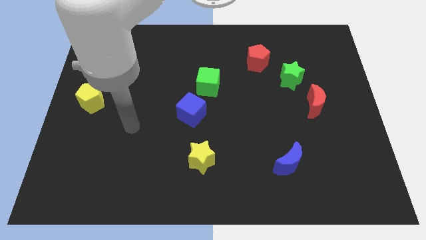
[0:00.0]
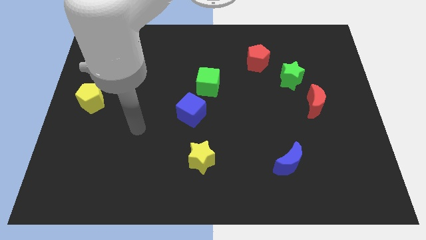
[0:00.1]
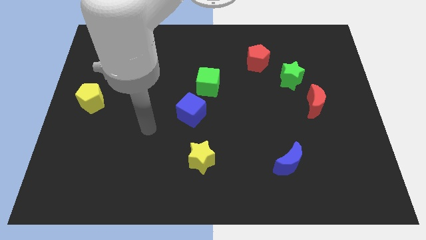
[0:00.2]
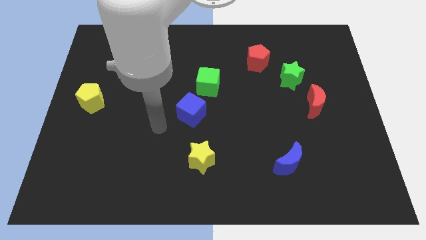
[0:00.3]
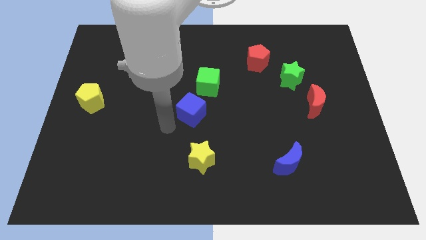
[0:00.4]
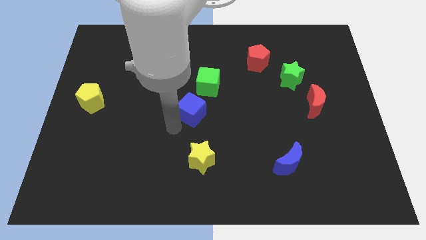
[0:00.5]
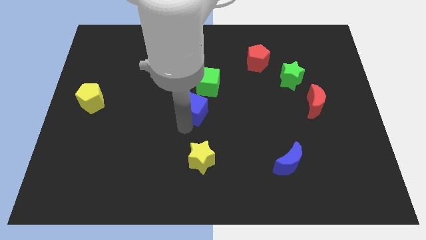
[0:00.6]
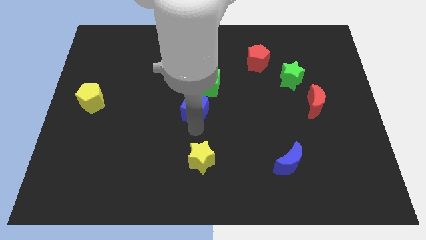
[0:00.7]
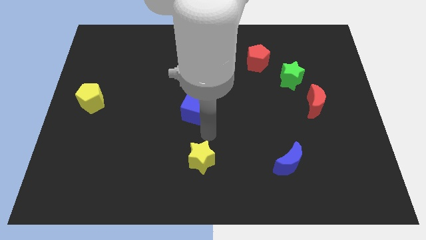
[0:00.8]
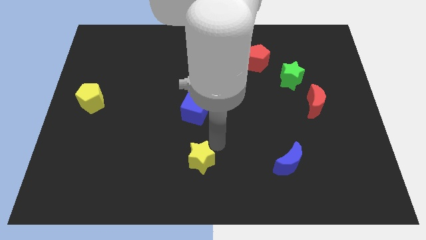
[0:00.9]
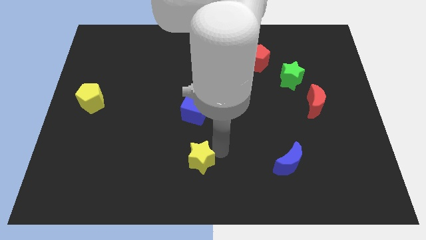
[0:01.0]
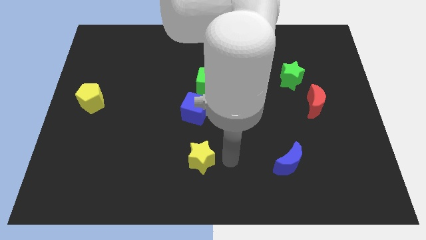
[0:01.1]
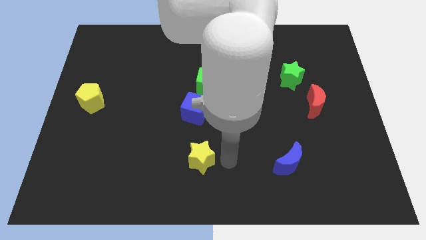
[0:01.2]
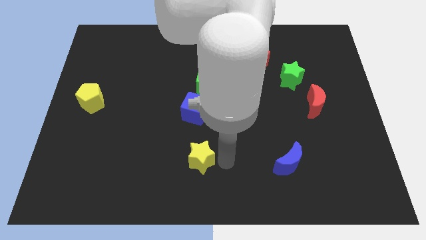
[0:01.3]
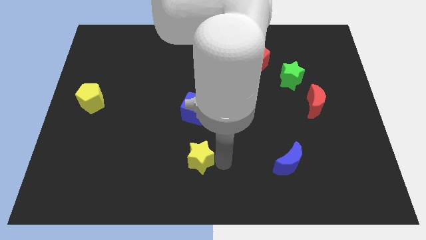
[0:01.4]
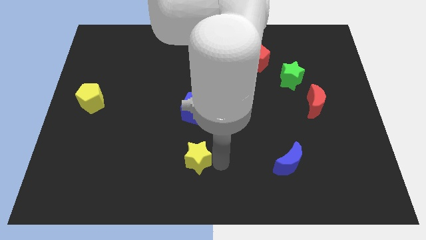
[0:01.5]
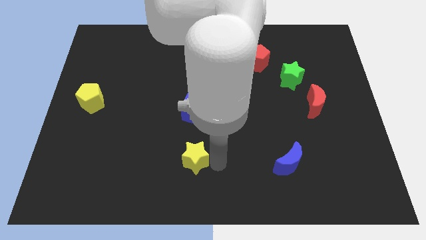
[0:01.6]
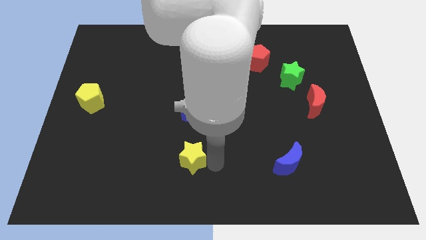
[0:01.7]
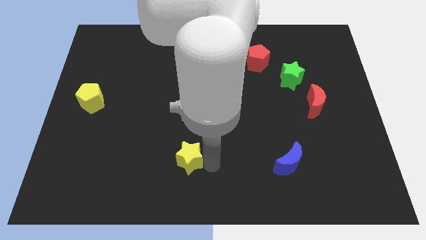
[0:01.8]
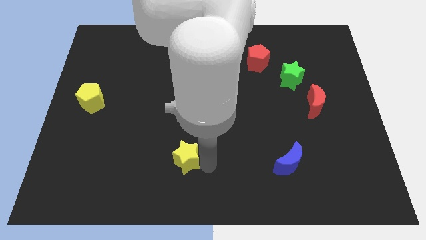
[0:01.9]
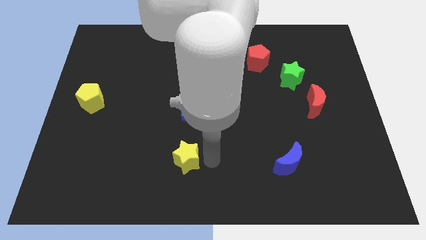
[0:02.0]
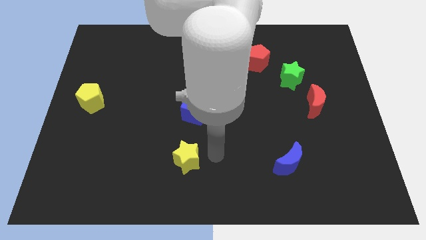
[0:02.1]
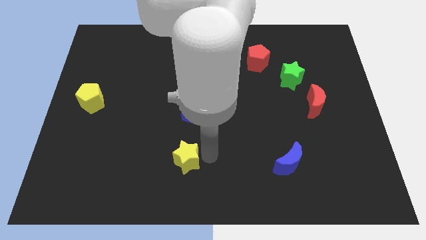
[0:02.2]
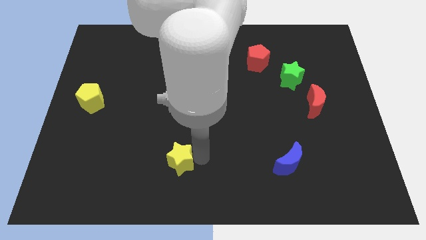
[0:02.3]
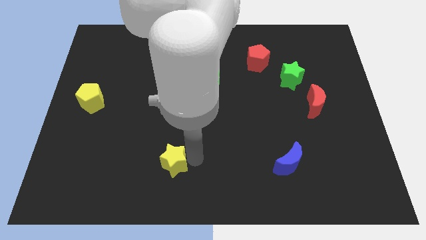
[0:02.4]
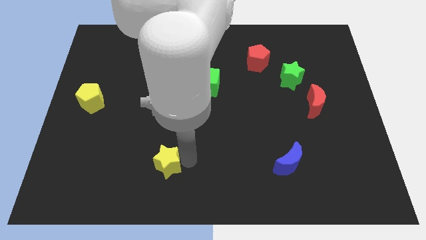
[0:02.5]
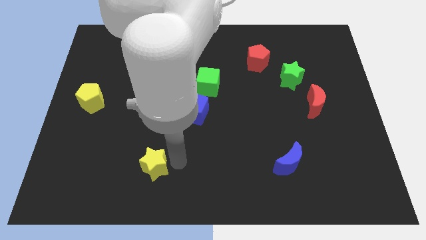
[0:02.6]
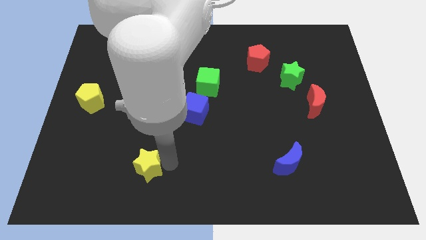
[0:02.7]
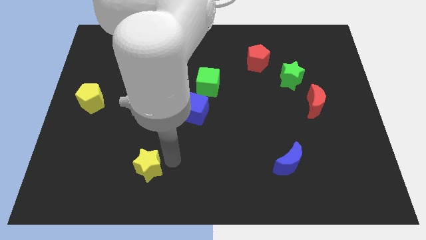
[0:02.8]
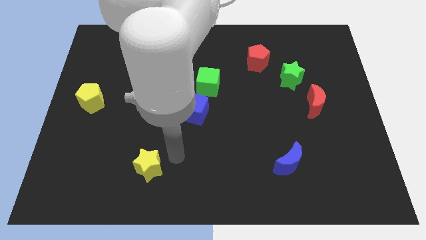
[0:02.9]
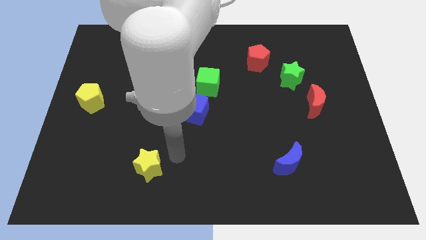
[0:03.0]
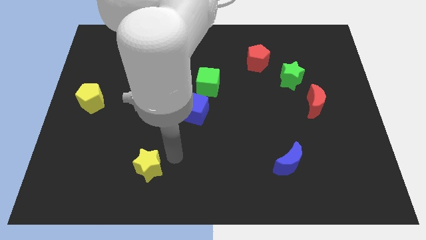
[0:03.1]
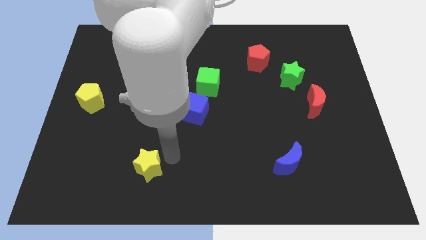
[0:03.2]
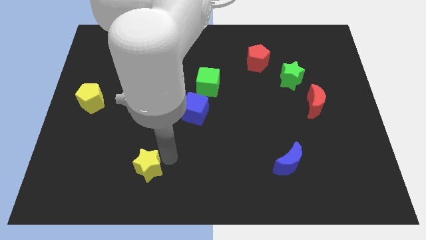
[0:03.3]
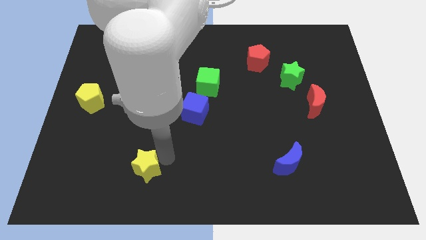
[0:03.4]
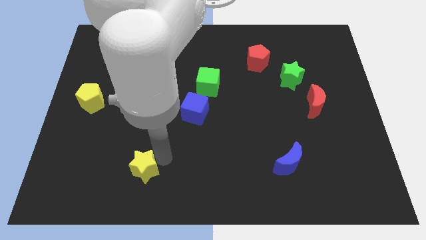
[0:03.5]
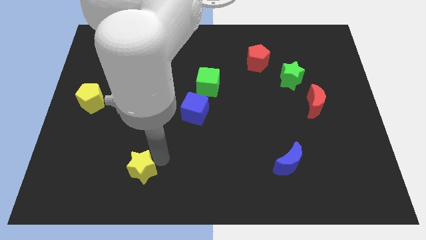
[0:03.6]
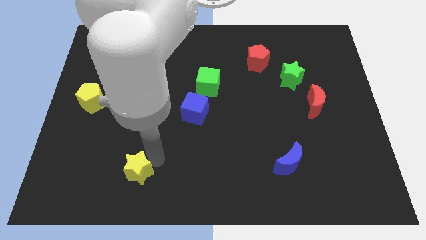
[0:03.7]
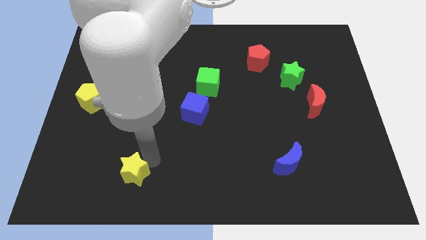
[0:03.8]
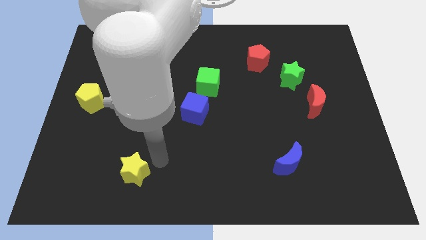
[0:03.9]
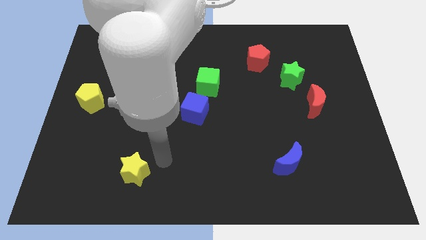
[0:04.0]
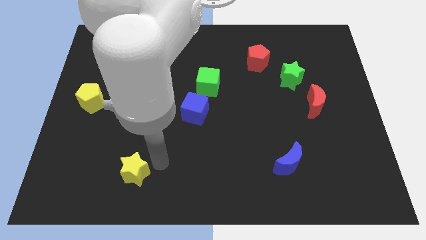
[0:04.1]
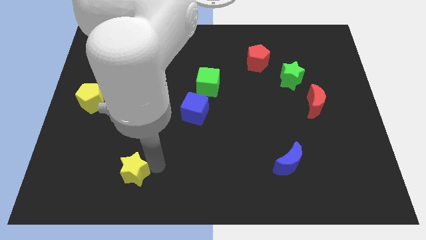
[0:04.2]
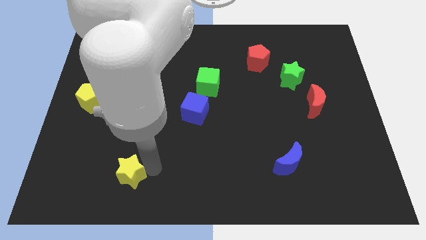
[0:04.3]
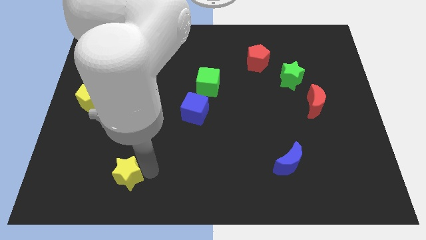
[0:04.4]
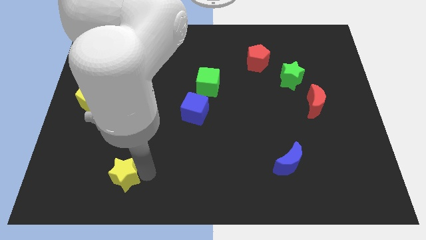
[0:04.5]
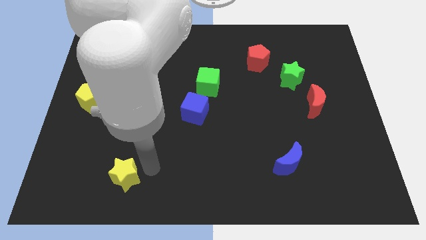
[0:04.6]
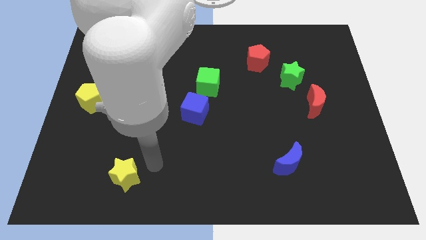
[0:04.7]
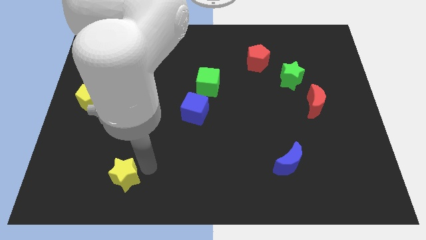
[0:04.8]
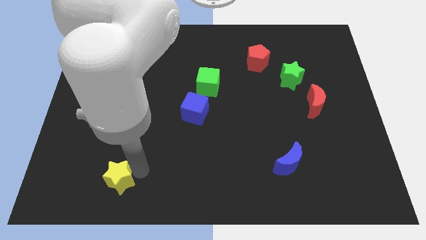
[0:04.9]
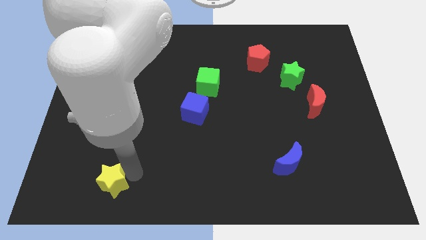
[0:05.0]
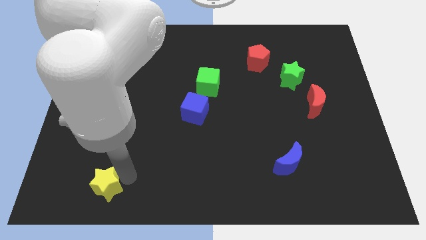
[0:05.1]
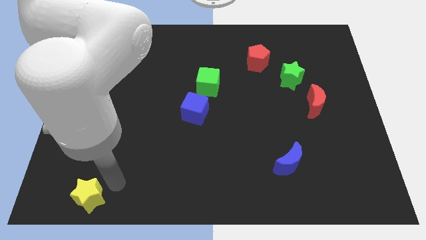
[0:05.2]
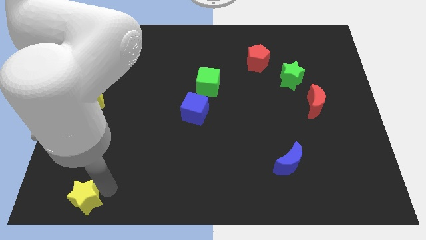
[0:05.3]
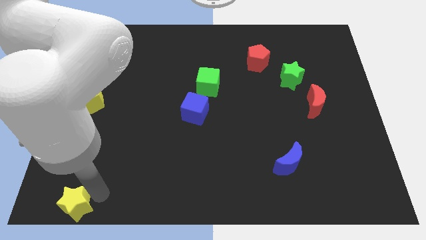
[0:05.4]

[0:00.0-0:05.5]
slide the yellow star to the bottom left of the board

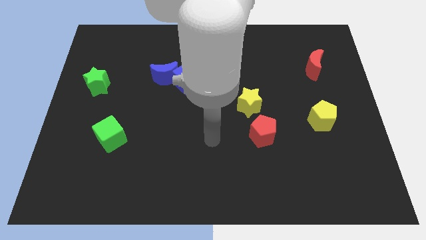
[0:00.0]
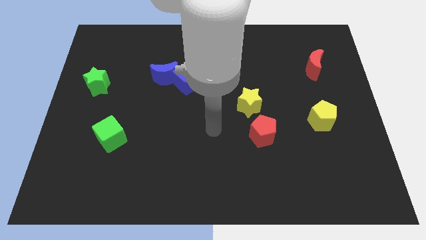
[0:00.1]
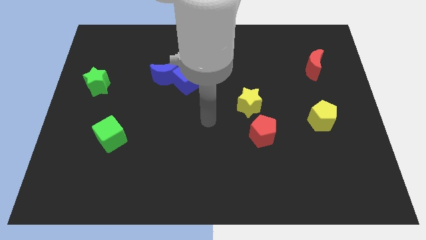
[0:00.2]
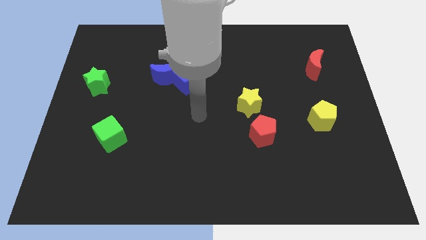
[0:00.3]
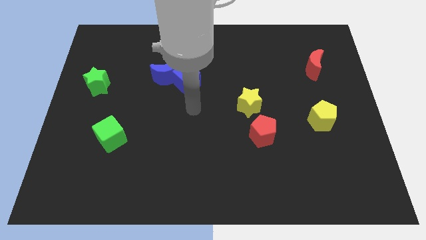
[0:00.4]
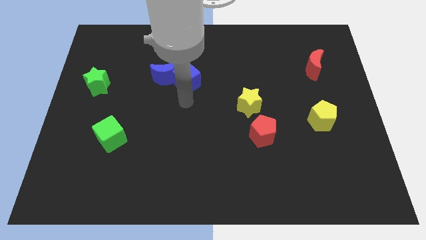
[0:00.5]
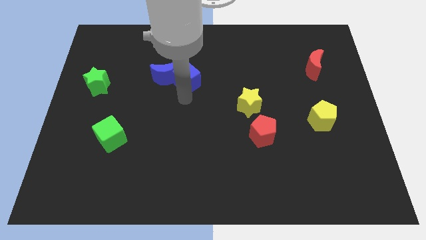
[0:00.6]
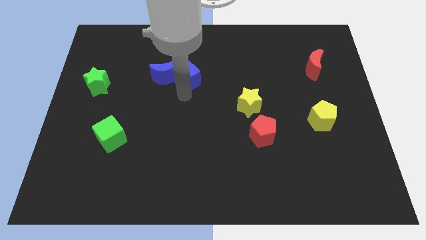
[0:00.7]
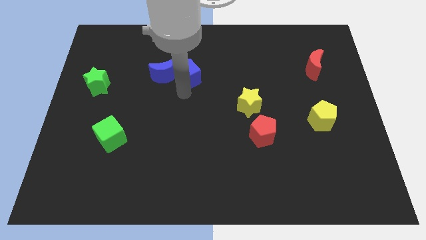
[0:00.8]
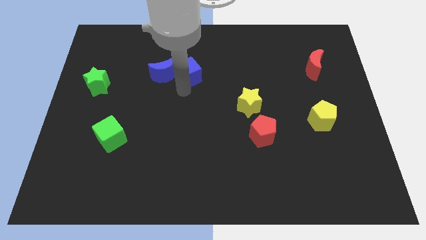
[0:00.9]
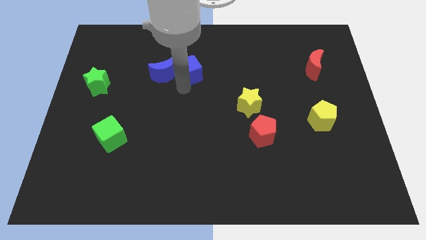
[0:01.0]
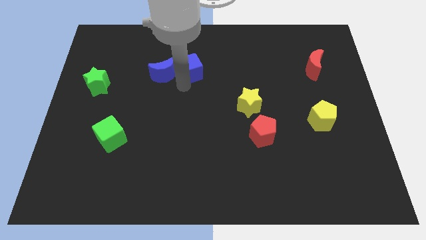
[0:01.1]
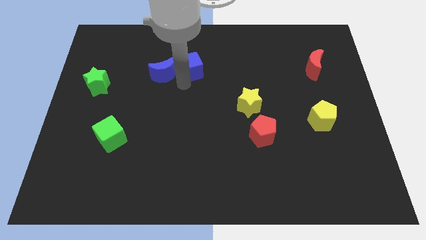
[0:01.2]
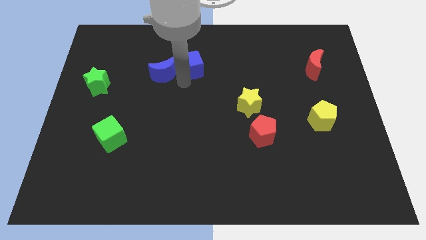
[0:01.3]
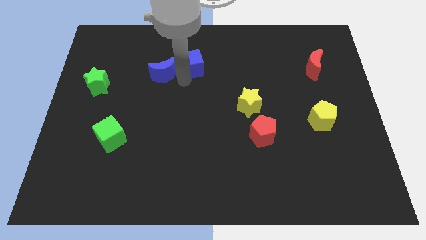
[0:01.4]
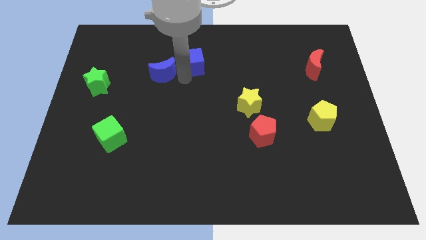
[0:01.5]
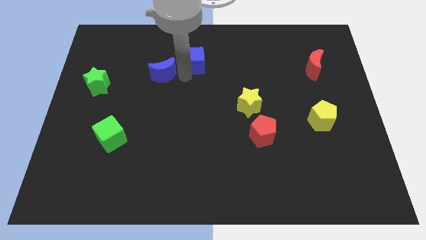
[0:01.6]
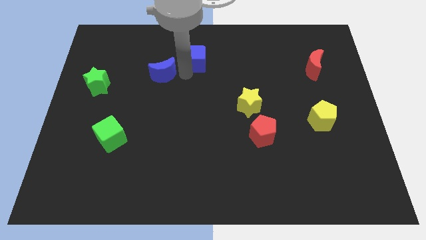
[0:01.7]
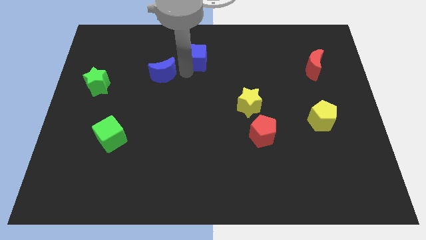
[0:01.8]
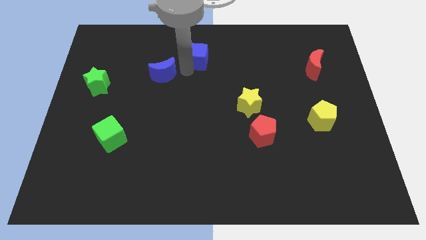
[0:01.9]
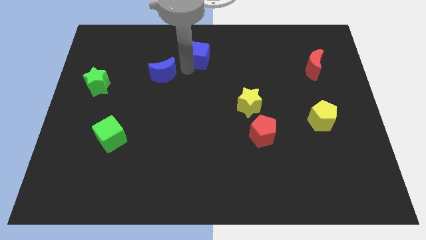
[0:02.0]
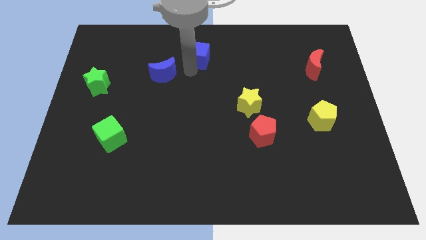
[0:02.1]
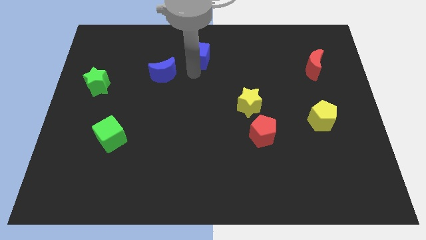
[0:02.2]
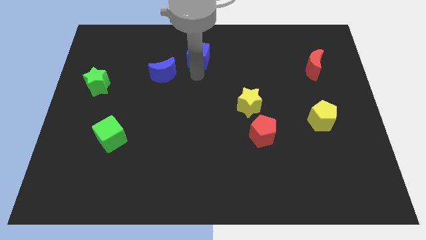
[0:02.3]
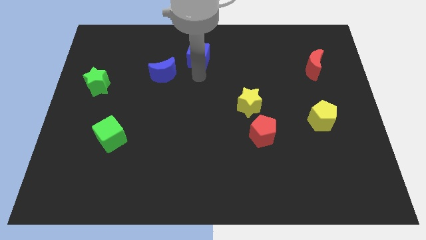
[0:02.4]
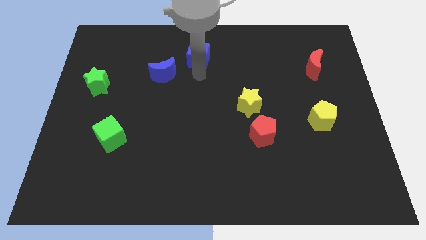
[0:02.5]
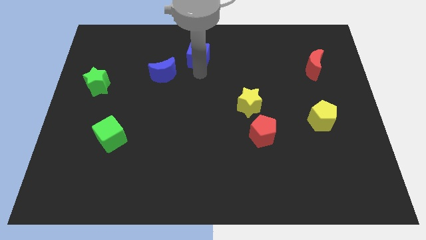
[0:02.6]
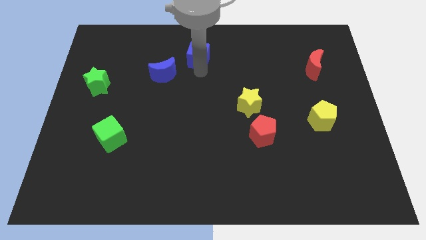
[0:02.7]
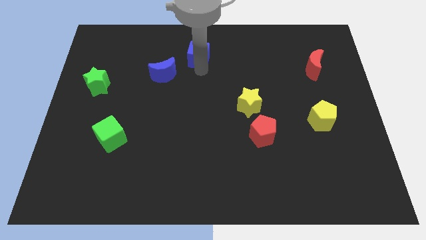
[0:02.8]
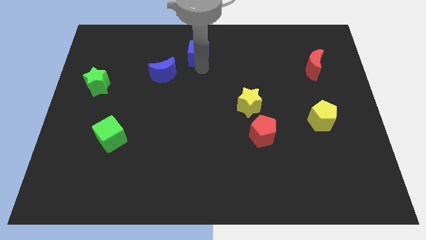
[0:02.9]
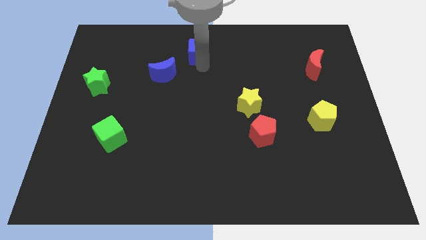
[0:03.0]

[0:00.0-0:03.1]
slide the blue cube to the top
